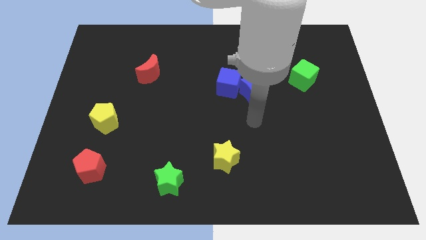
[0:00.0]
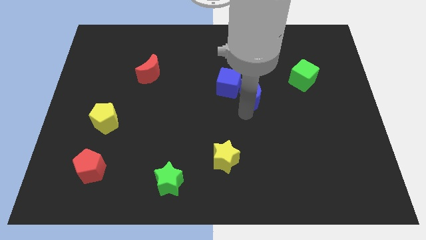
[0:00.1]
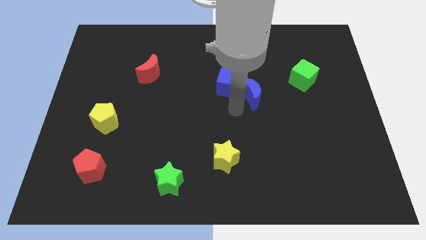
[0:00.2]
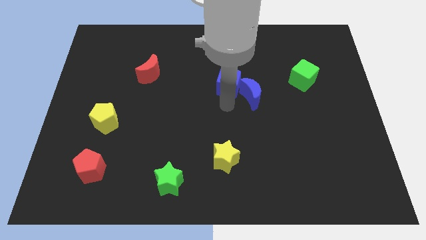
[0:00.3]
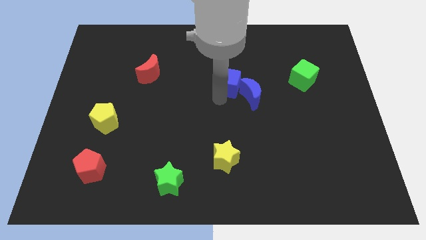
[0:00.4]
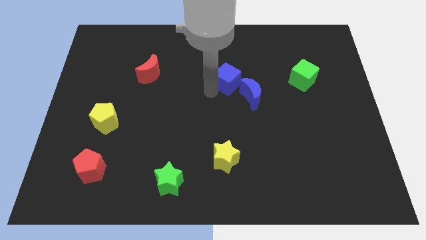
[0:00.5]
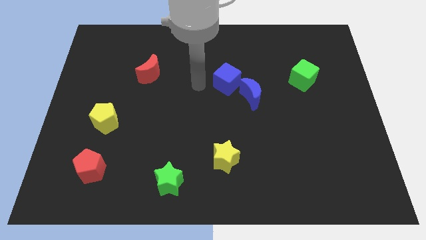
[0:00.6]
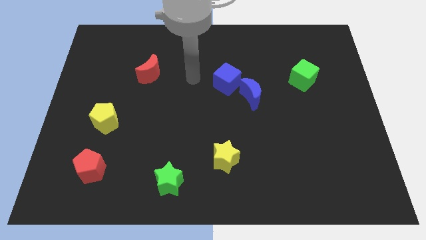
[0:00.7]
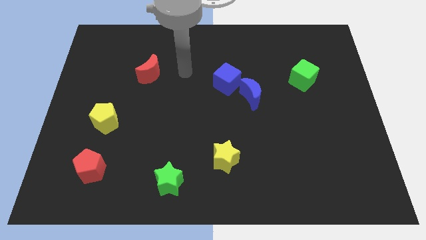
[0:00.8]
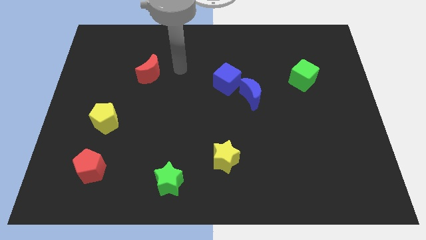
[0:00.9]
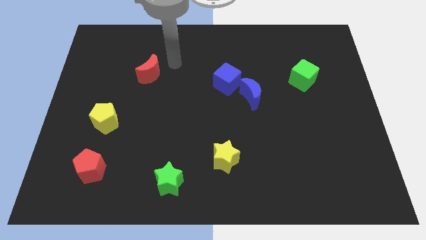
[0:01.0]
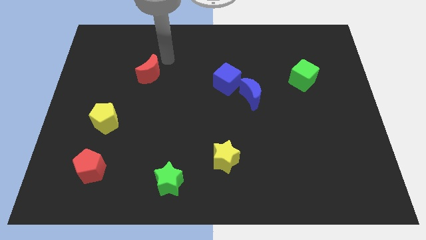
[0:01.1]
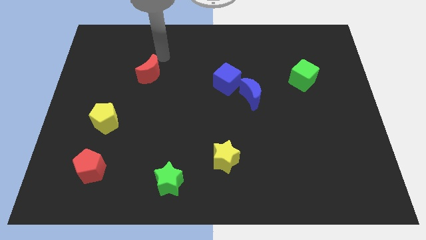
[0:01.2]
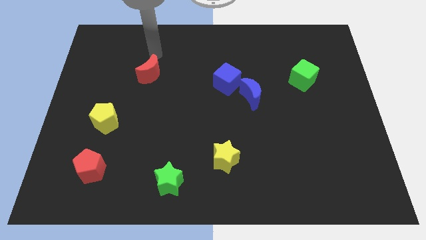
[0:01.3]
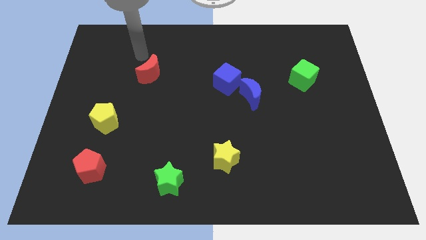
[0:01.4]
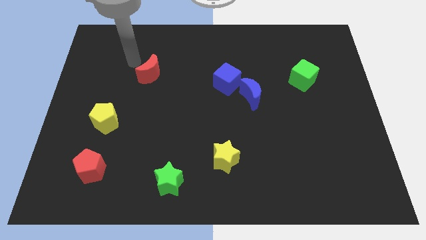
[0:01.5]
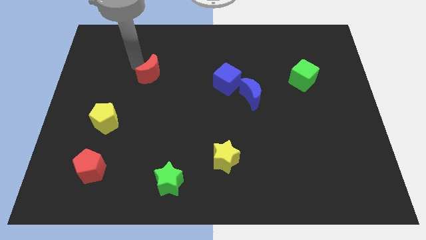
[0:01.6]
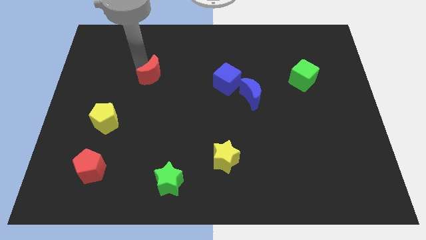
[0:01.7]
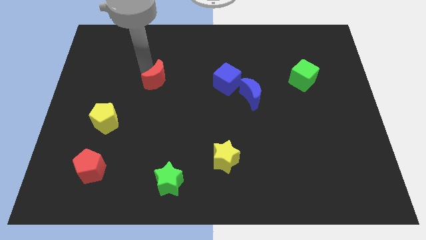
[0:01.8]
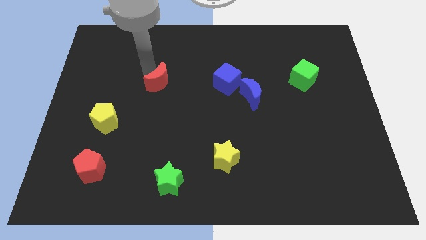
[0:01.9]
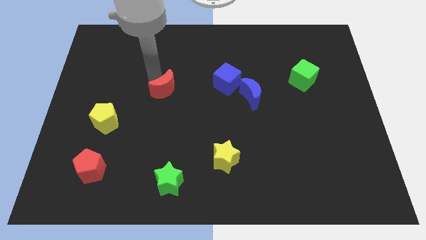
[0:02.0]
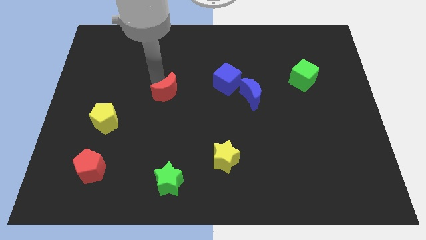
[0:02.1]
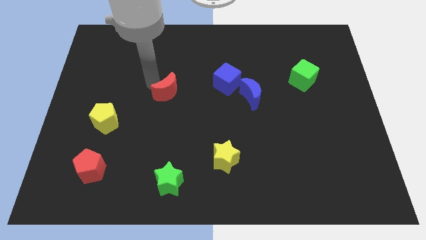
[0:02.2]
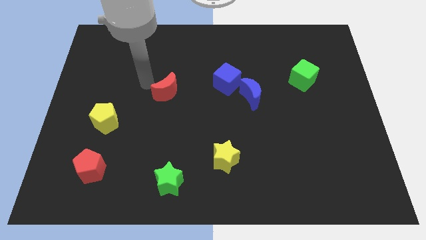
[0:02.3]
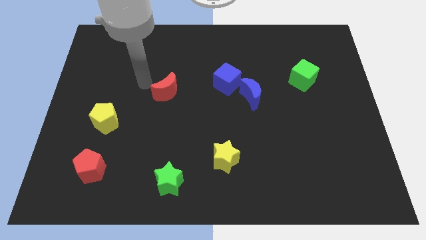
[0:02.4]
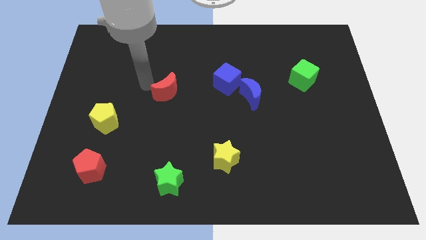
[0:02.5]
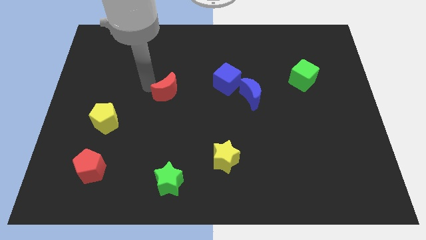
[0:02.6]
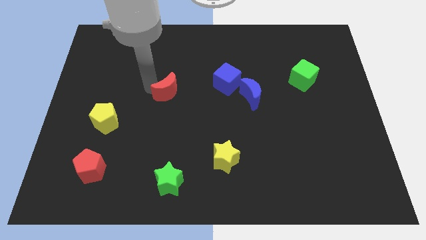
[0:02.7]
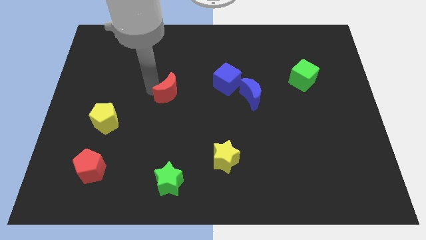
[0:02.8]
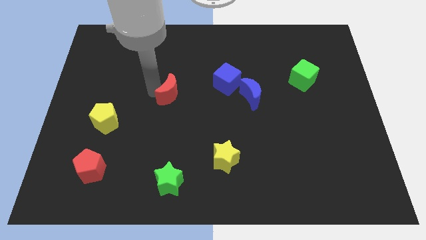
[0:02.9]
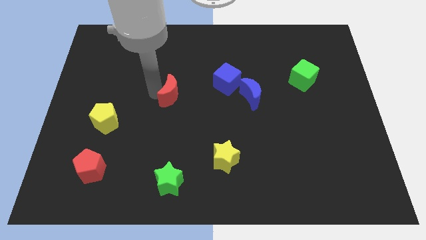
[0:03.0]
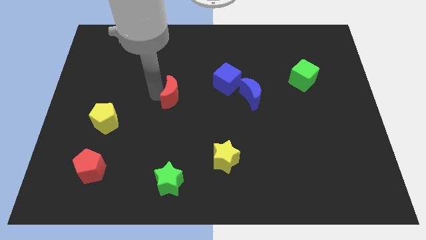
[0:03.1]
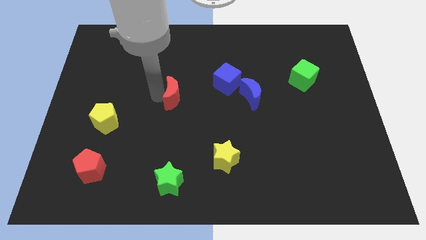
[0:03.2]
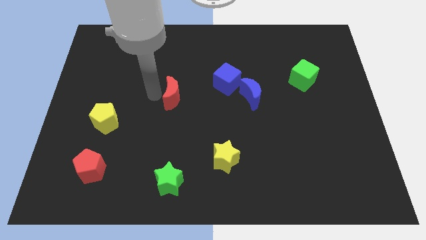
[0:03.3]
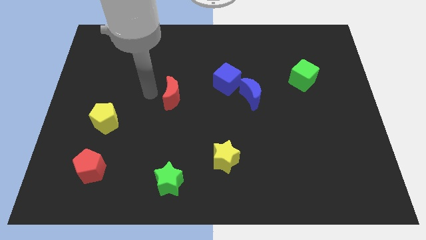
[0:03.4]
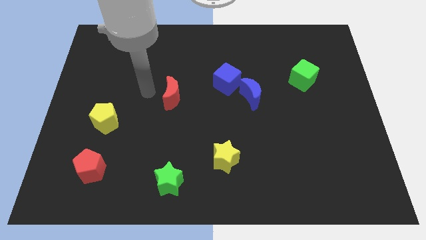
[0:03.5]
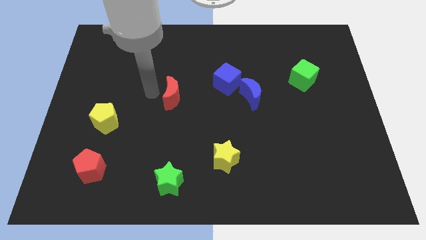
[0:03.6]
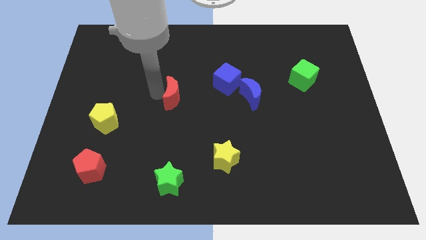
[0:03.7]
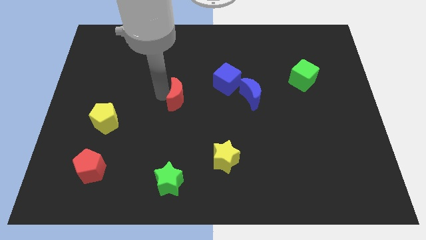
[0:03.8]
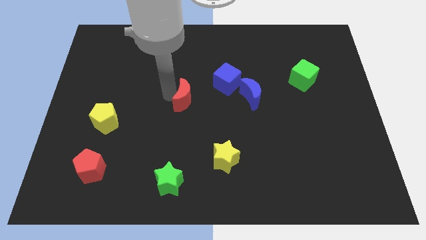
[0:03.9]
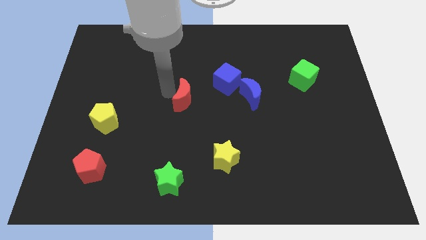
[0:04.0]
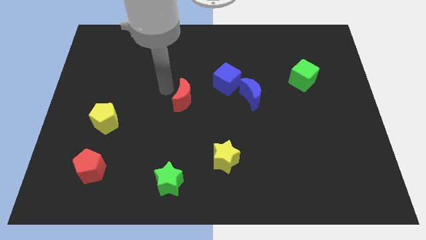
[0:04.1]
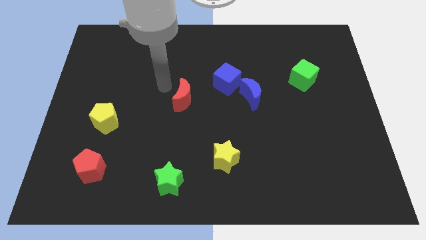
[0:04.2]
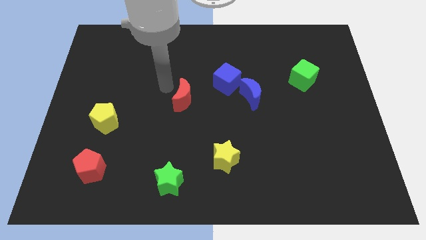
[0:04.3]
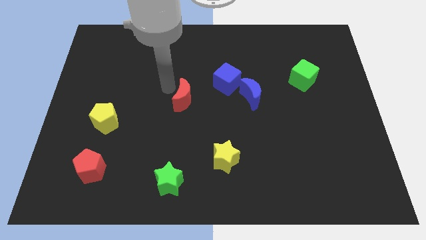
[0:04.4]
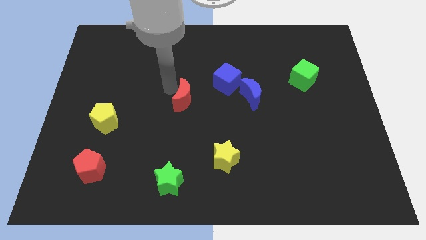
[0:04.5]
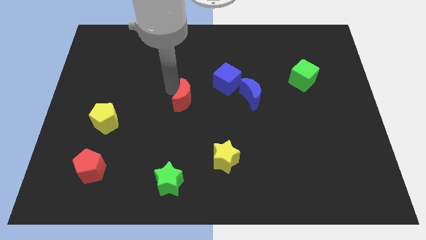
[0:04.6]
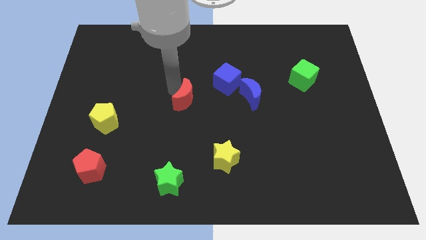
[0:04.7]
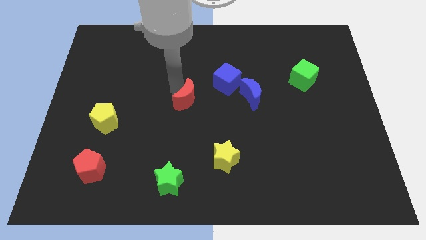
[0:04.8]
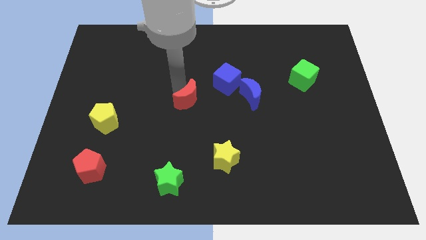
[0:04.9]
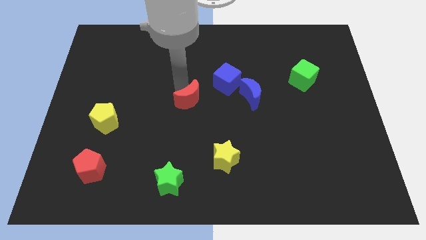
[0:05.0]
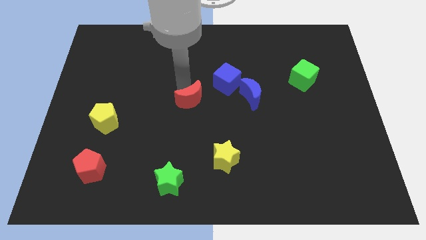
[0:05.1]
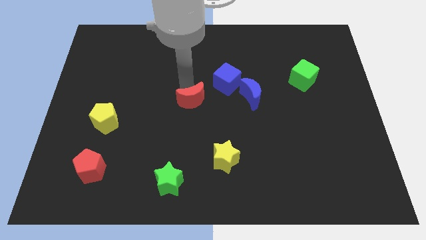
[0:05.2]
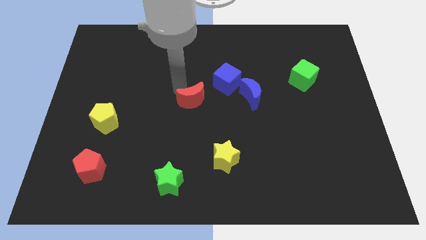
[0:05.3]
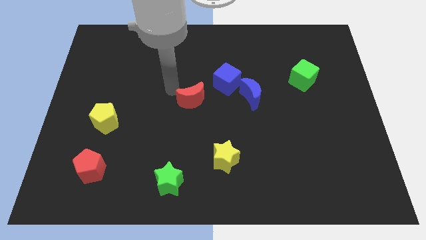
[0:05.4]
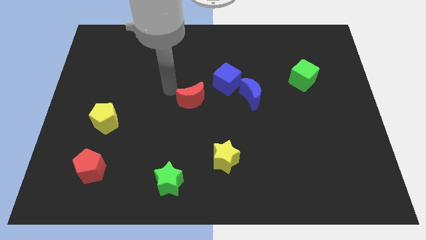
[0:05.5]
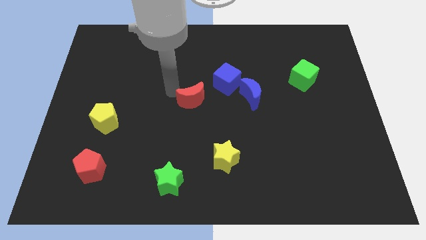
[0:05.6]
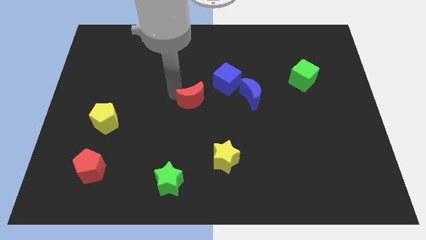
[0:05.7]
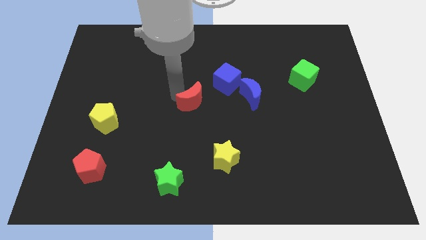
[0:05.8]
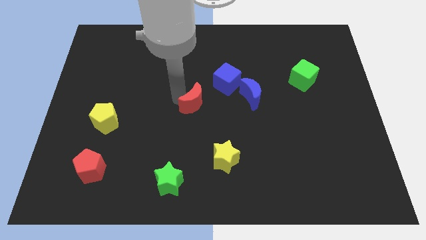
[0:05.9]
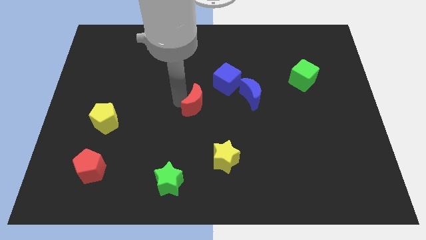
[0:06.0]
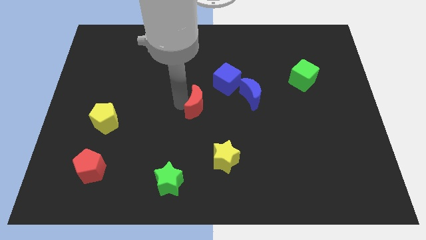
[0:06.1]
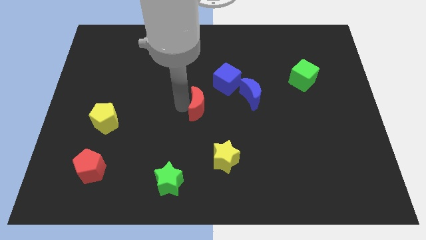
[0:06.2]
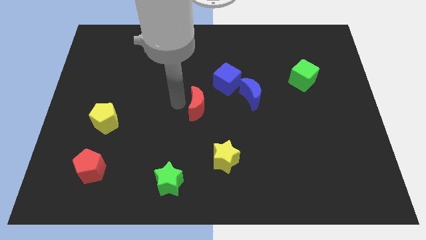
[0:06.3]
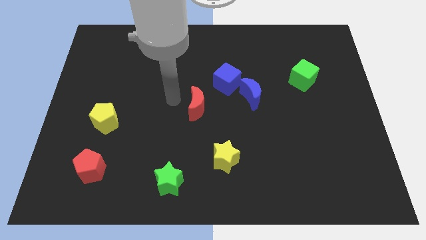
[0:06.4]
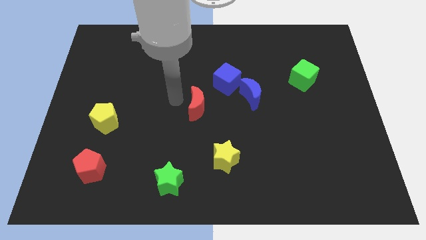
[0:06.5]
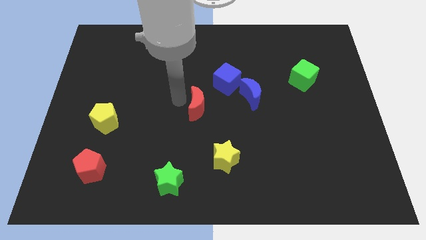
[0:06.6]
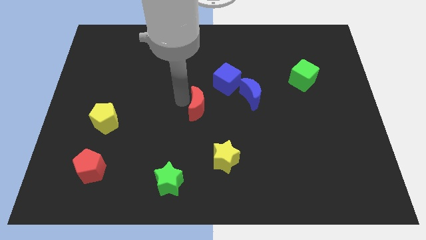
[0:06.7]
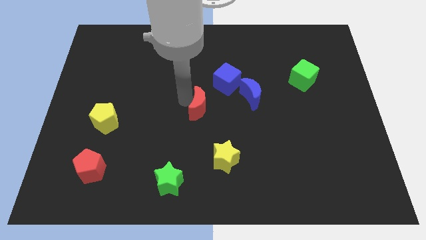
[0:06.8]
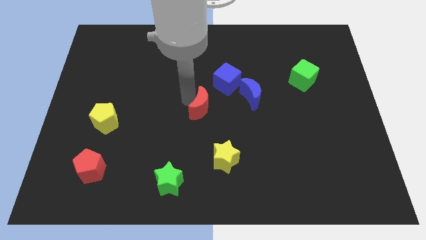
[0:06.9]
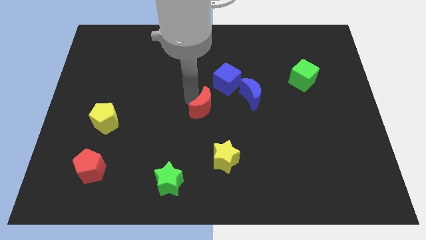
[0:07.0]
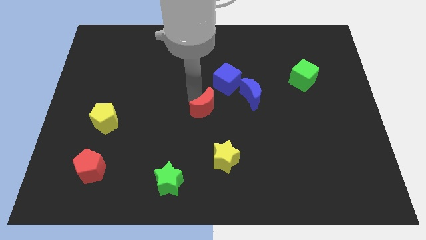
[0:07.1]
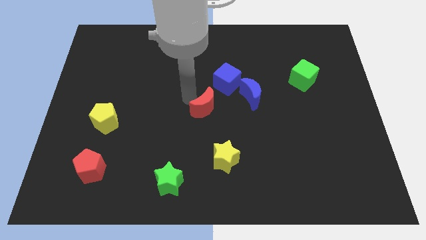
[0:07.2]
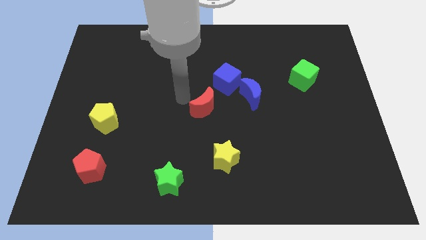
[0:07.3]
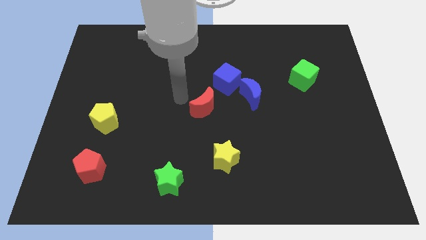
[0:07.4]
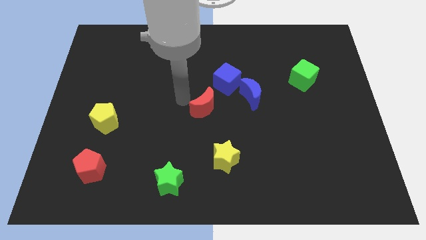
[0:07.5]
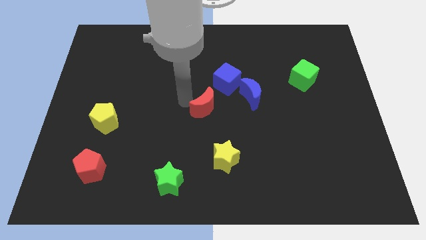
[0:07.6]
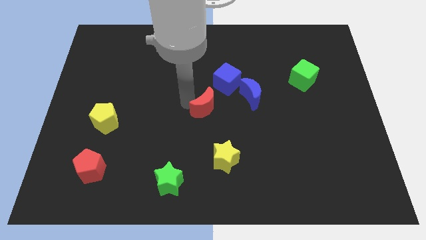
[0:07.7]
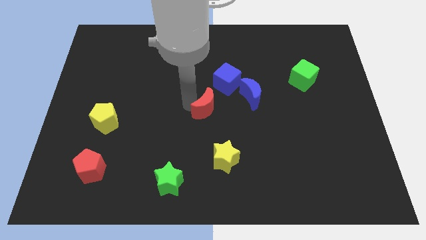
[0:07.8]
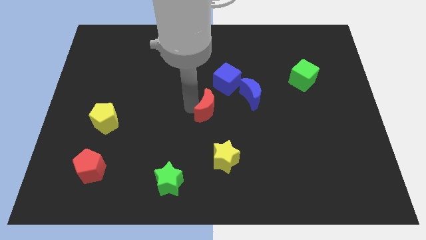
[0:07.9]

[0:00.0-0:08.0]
move the red moon to the bottom side of the blue cube
